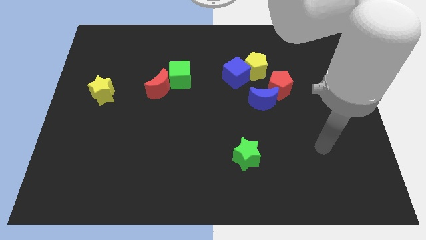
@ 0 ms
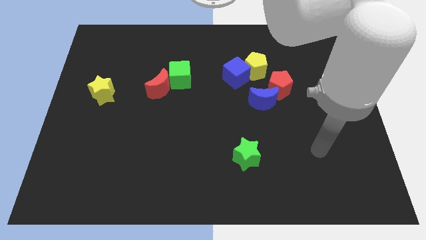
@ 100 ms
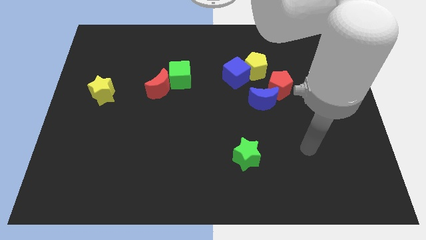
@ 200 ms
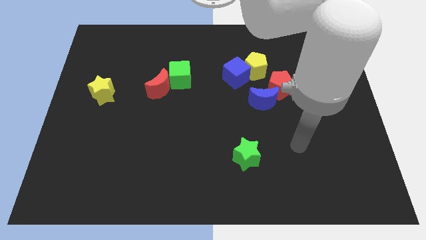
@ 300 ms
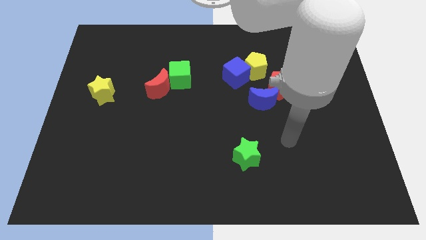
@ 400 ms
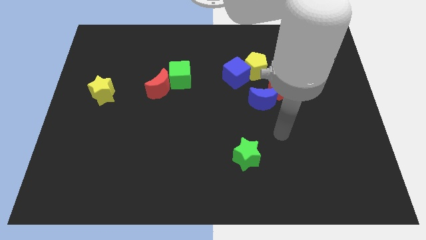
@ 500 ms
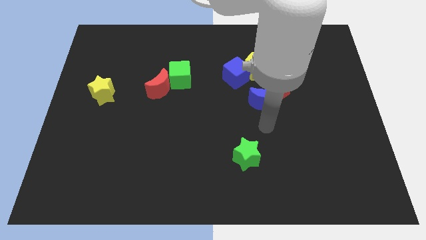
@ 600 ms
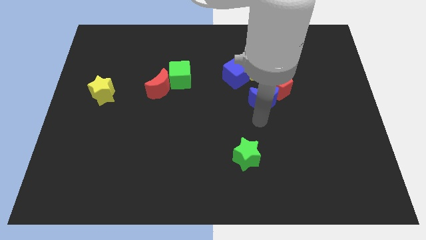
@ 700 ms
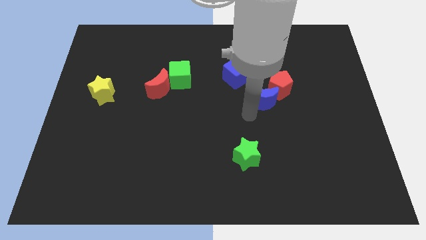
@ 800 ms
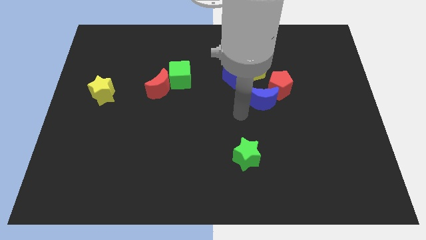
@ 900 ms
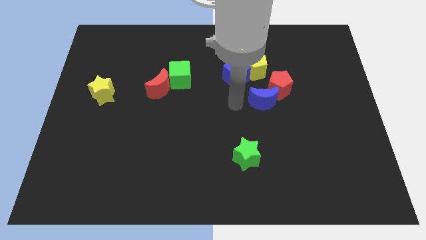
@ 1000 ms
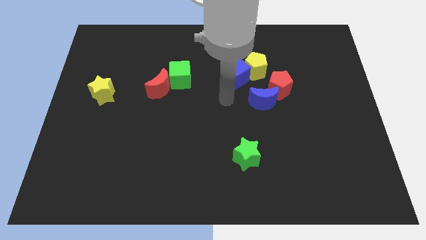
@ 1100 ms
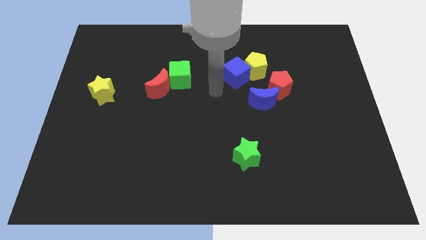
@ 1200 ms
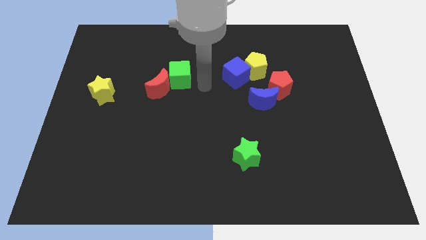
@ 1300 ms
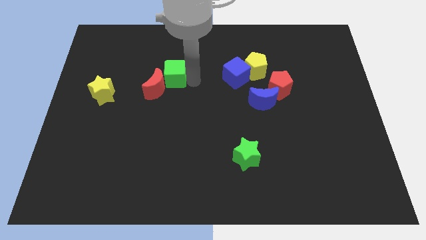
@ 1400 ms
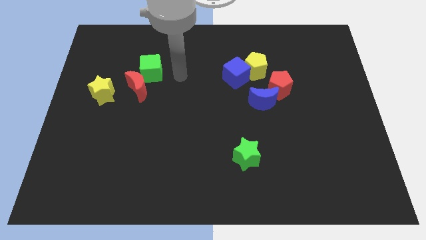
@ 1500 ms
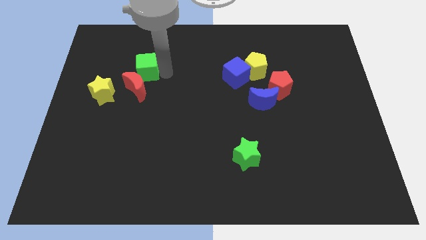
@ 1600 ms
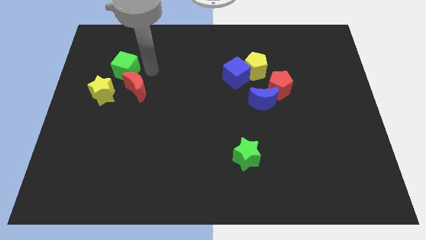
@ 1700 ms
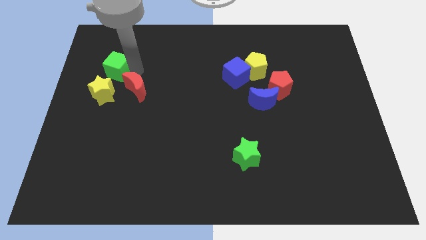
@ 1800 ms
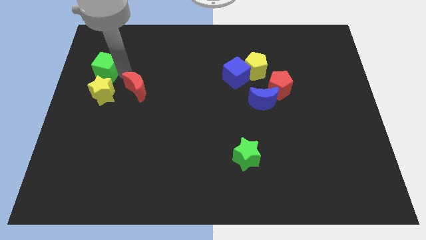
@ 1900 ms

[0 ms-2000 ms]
move the red moon away from the green cube

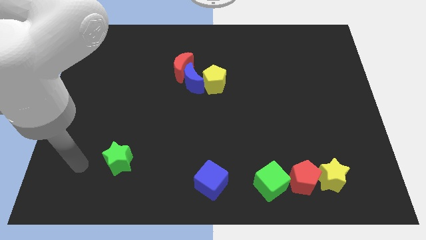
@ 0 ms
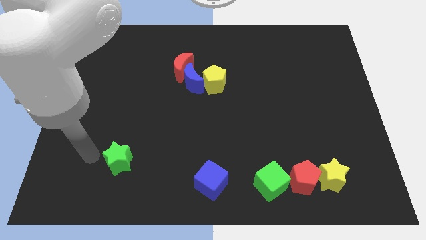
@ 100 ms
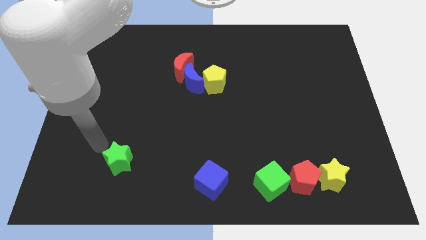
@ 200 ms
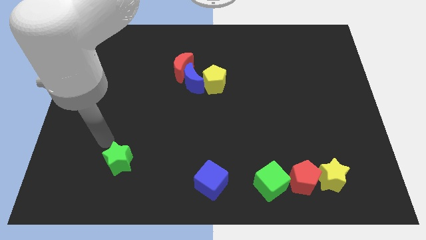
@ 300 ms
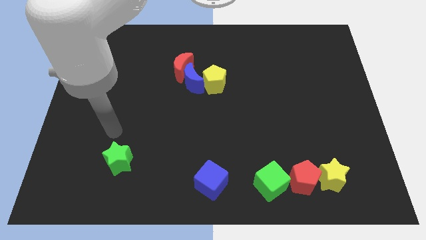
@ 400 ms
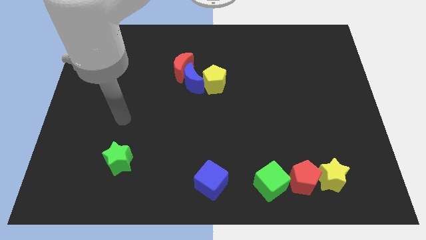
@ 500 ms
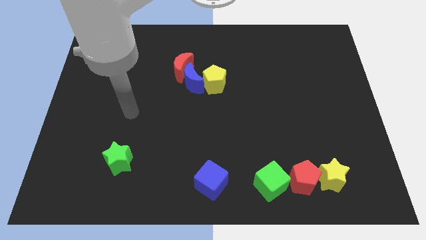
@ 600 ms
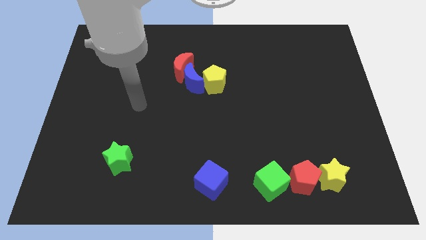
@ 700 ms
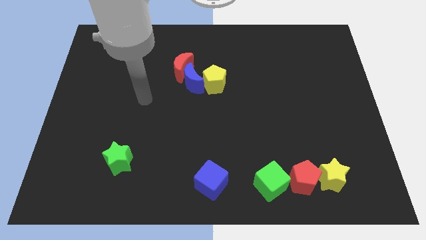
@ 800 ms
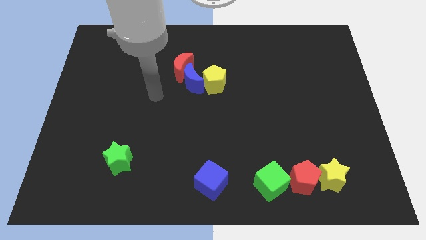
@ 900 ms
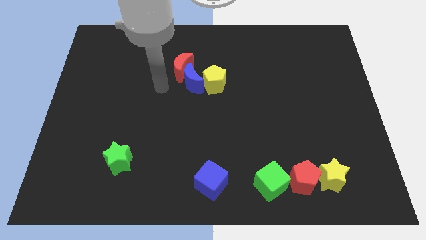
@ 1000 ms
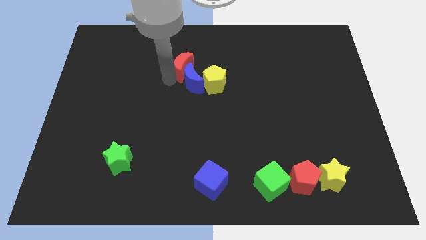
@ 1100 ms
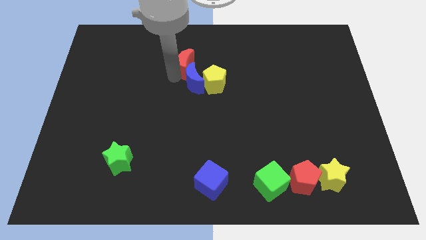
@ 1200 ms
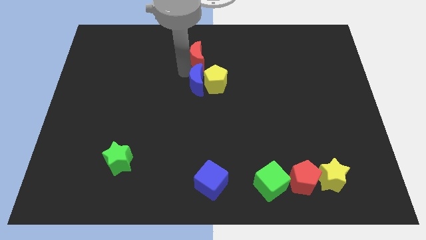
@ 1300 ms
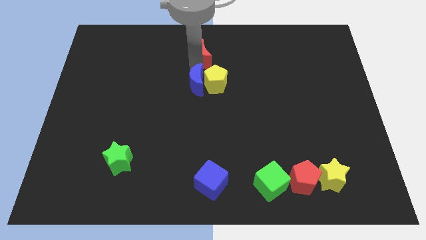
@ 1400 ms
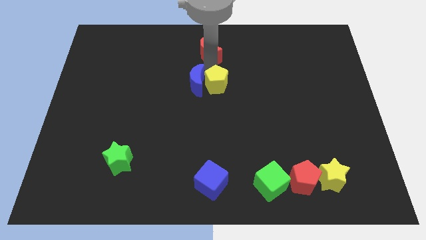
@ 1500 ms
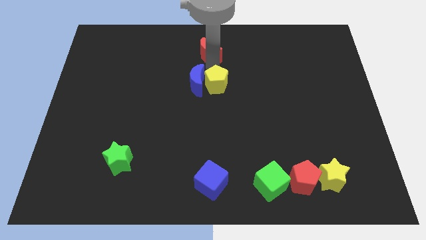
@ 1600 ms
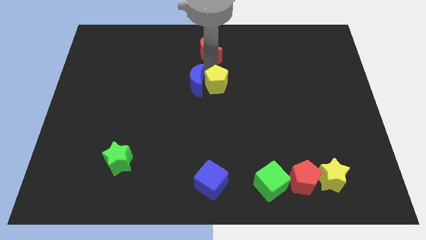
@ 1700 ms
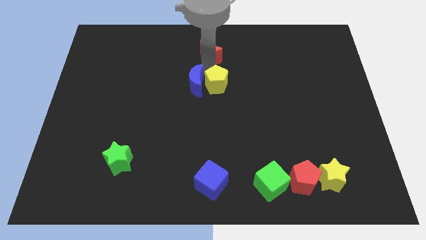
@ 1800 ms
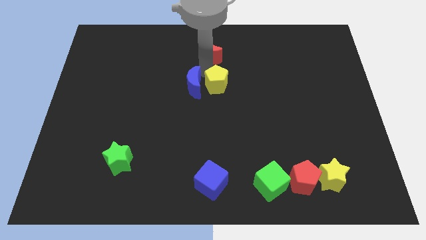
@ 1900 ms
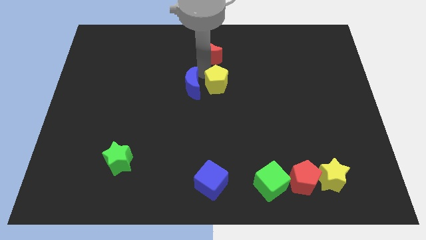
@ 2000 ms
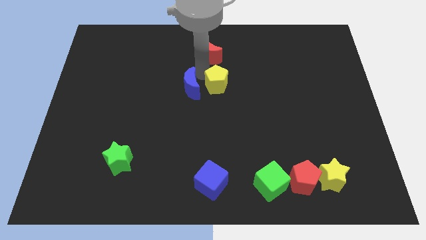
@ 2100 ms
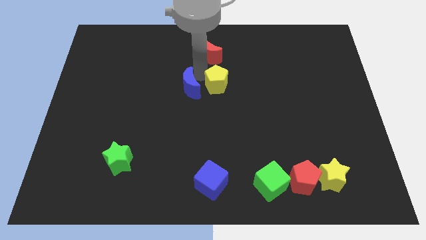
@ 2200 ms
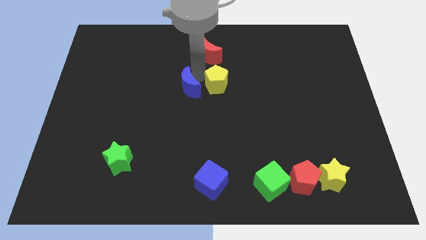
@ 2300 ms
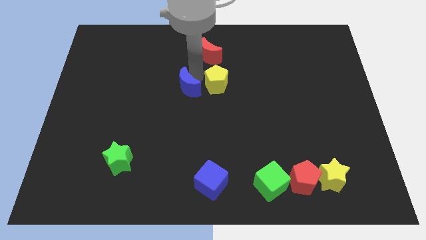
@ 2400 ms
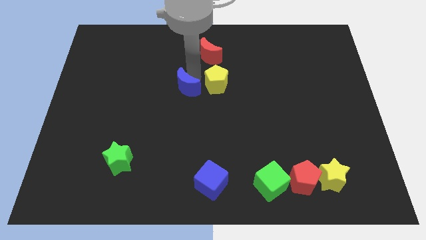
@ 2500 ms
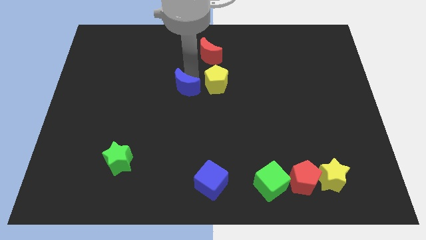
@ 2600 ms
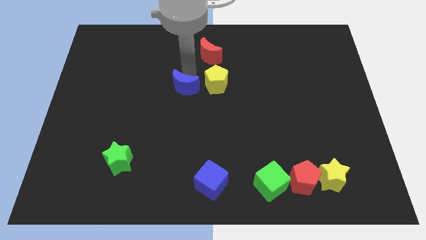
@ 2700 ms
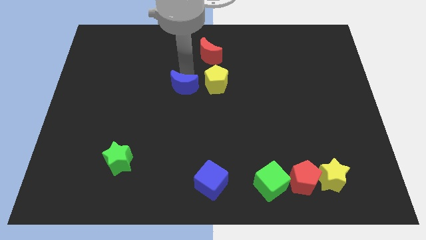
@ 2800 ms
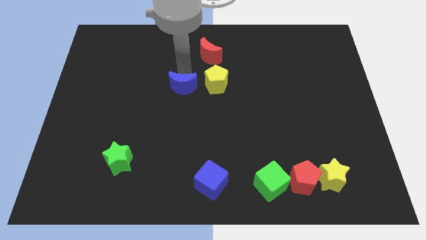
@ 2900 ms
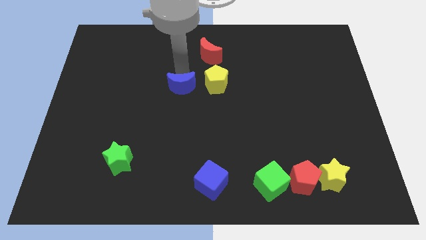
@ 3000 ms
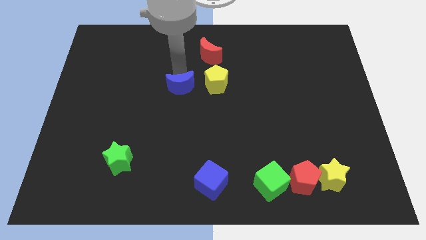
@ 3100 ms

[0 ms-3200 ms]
separate the blue moon from the red moon and yellow pentagon

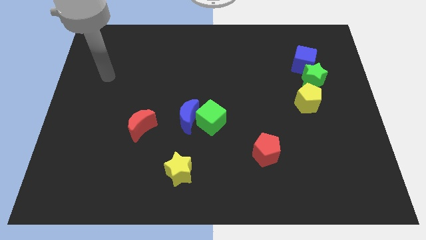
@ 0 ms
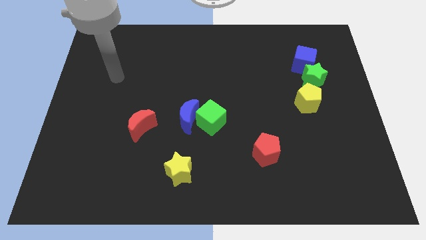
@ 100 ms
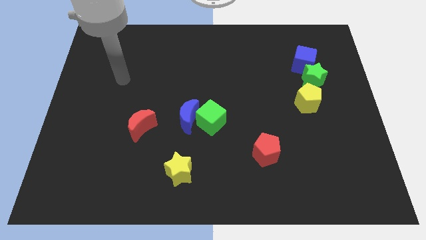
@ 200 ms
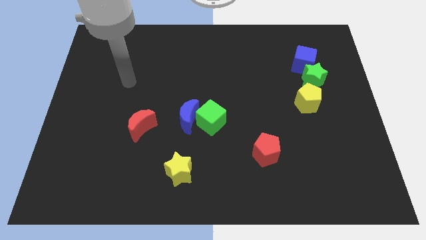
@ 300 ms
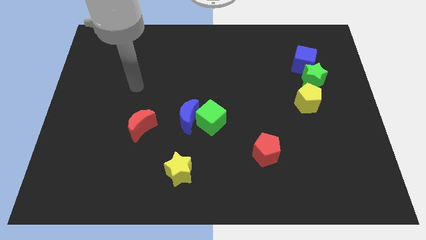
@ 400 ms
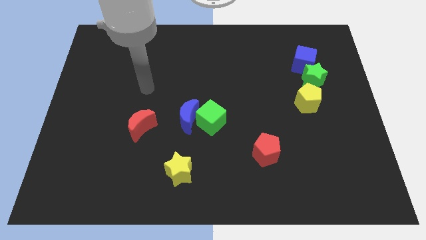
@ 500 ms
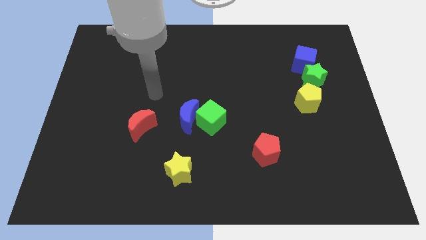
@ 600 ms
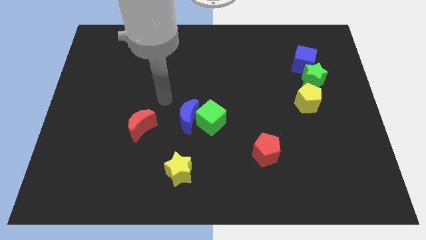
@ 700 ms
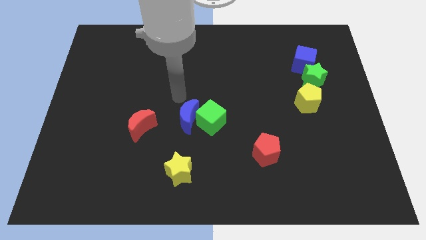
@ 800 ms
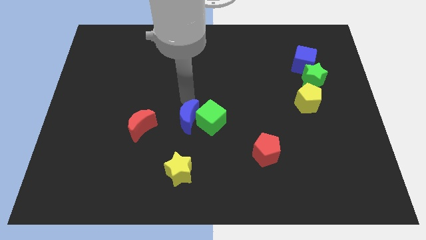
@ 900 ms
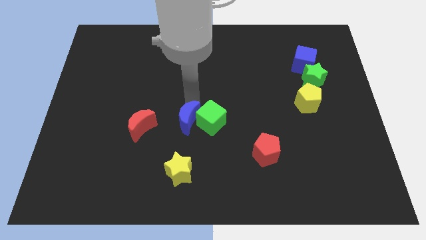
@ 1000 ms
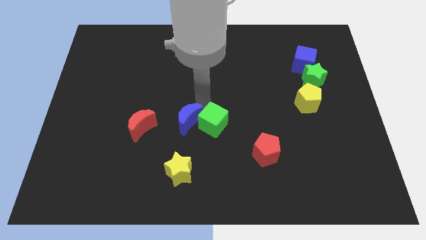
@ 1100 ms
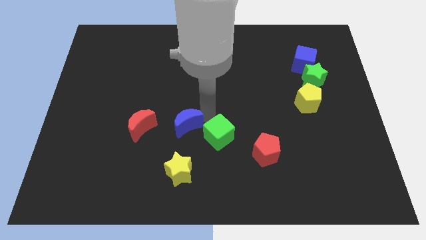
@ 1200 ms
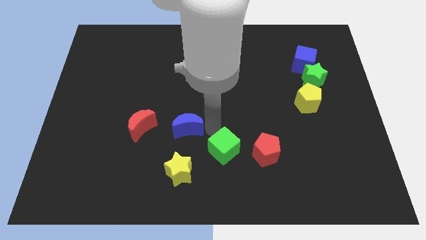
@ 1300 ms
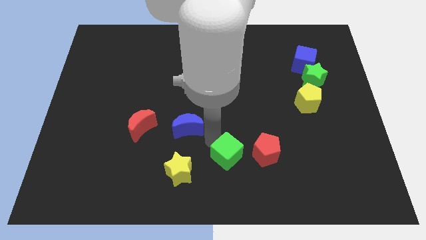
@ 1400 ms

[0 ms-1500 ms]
move the blue moon away from the green cube

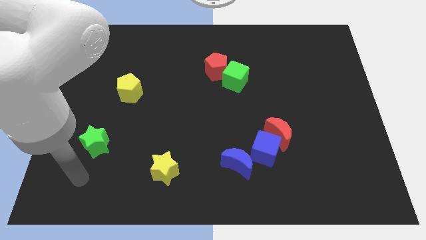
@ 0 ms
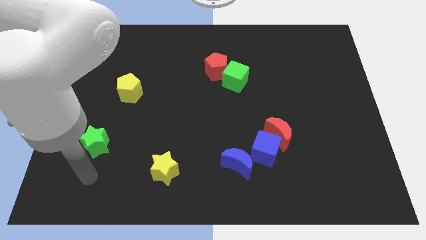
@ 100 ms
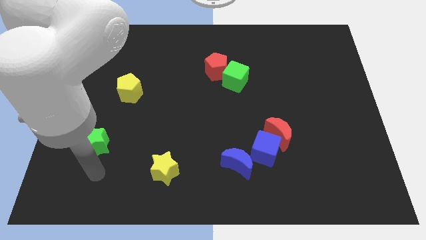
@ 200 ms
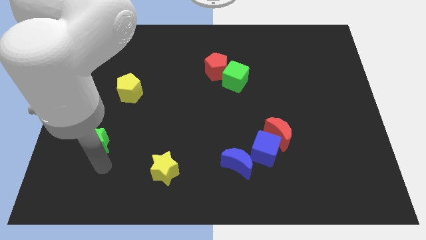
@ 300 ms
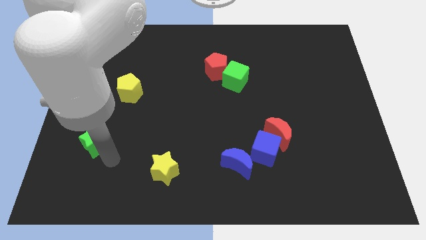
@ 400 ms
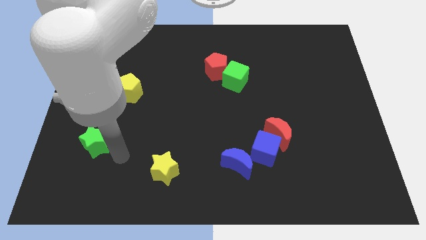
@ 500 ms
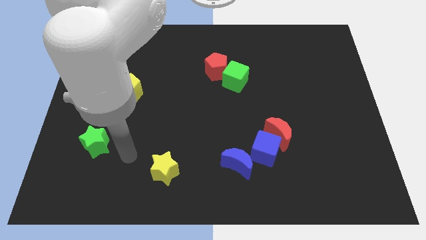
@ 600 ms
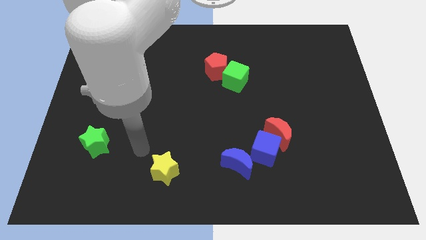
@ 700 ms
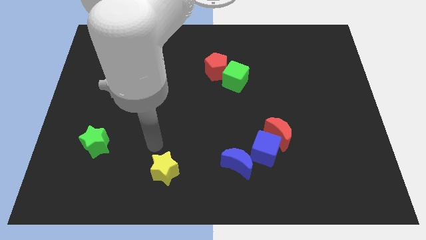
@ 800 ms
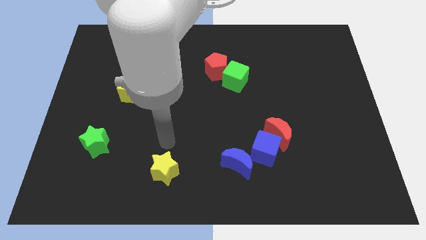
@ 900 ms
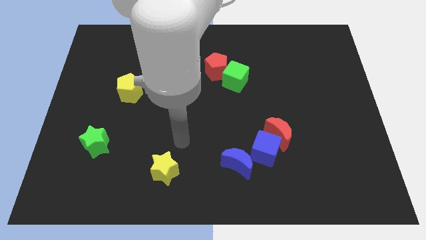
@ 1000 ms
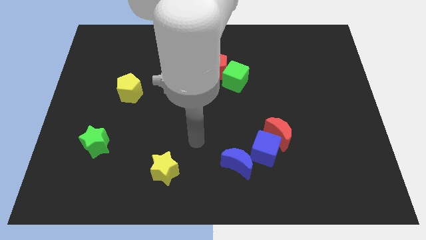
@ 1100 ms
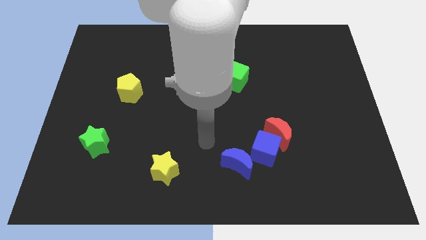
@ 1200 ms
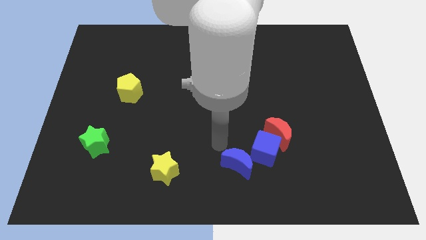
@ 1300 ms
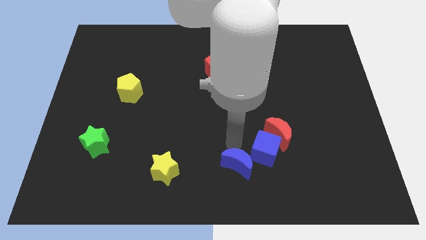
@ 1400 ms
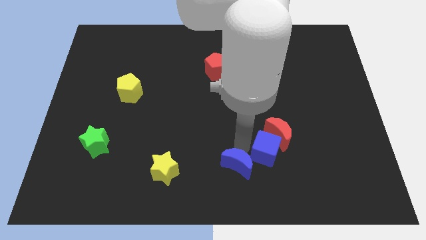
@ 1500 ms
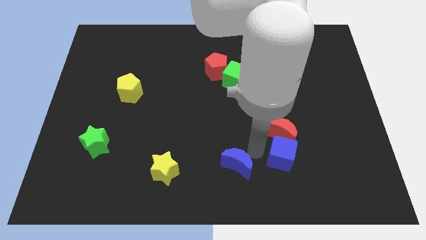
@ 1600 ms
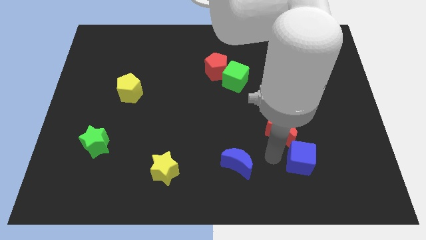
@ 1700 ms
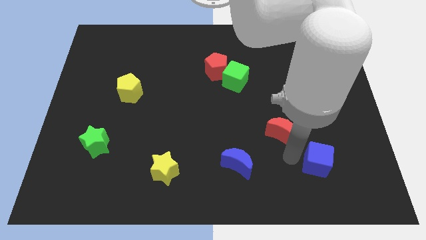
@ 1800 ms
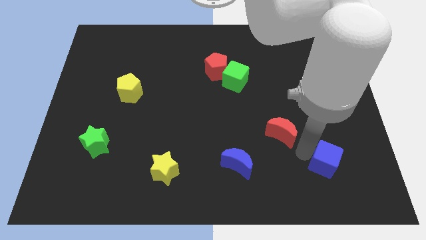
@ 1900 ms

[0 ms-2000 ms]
pull the red moon apart from the blue cube

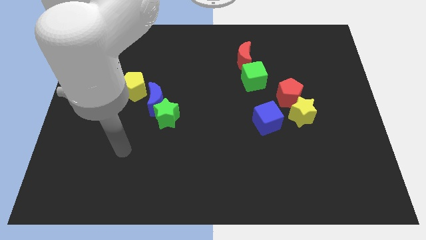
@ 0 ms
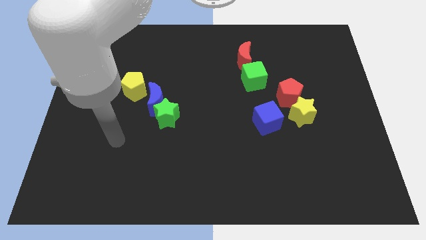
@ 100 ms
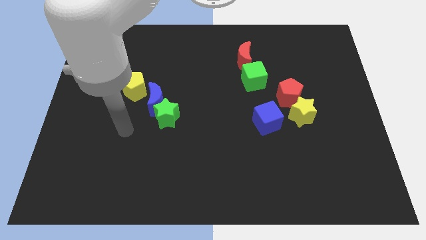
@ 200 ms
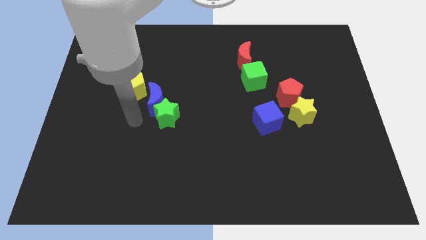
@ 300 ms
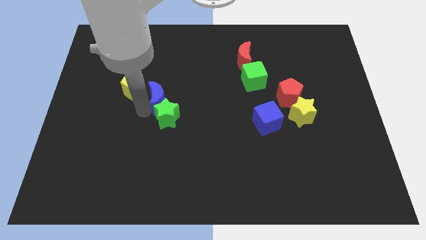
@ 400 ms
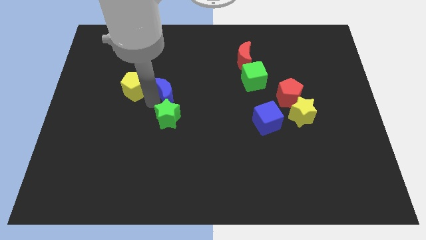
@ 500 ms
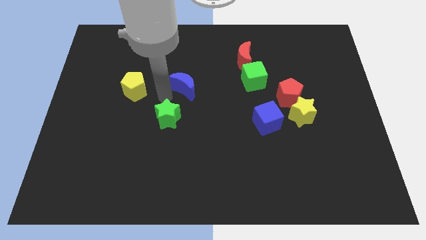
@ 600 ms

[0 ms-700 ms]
separate the green star from the blue moon
